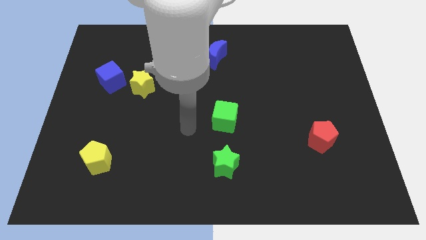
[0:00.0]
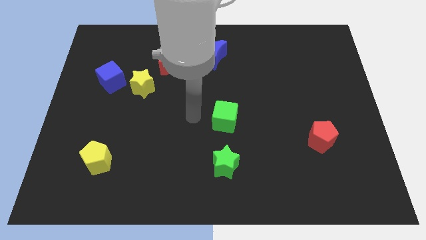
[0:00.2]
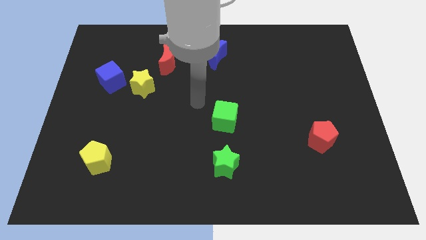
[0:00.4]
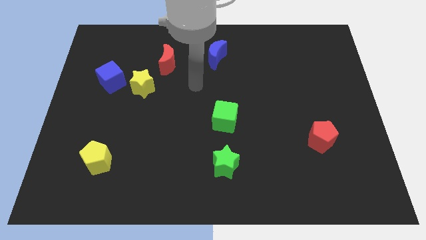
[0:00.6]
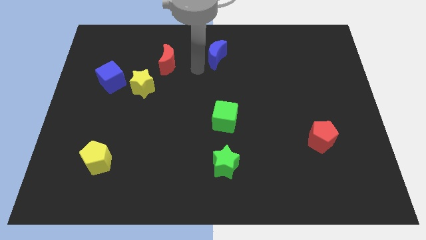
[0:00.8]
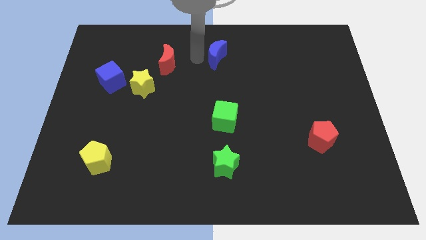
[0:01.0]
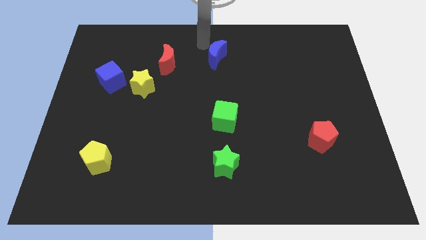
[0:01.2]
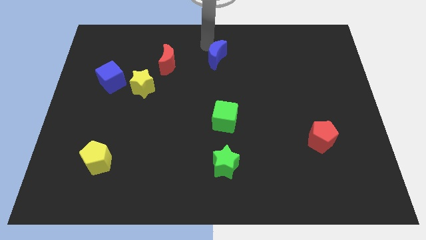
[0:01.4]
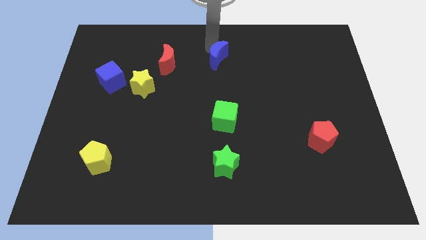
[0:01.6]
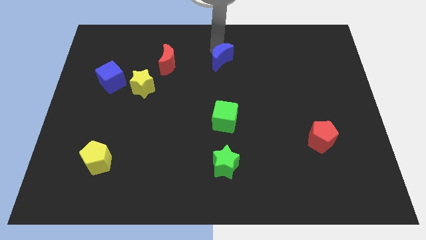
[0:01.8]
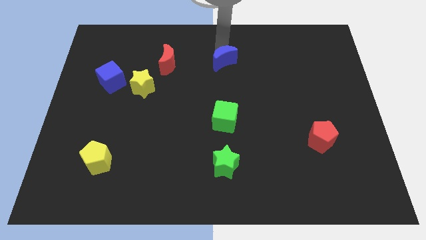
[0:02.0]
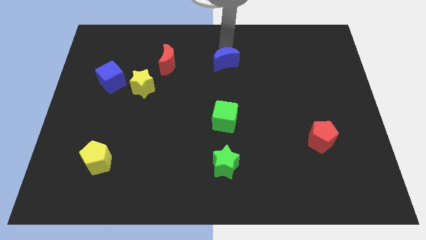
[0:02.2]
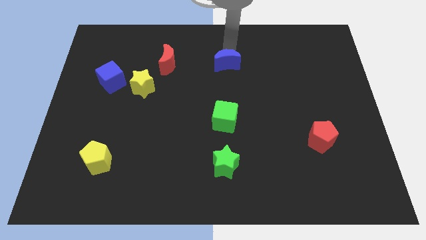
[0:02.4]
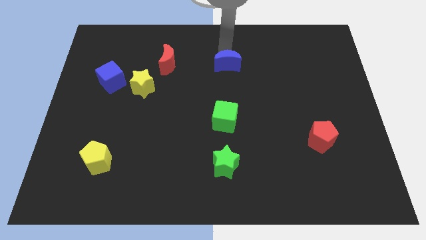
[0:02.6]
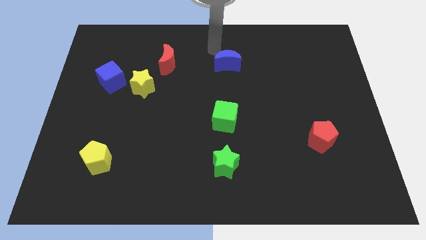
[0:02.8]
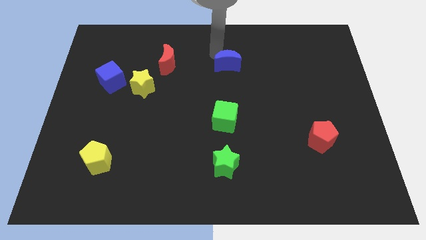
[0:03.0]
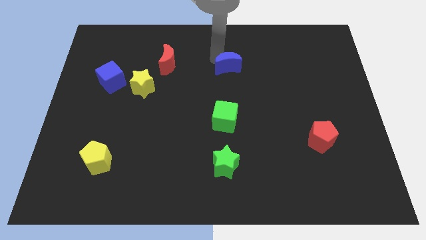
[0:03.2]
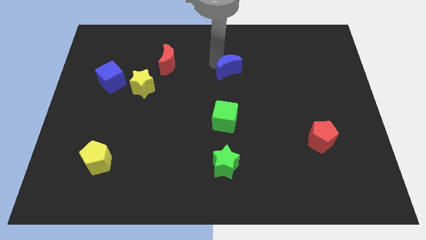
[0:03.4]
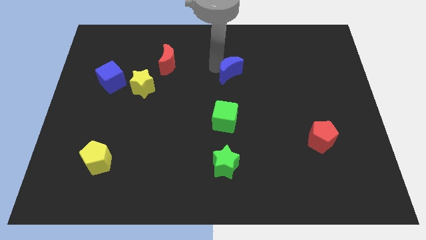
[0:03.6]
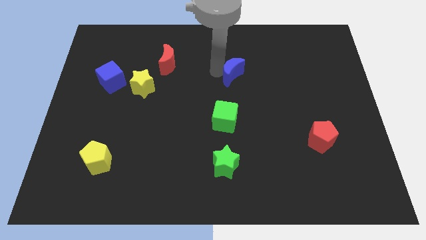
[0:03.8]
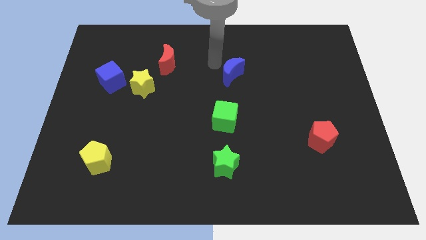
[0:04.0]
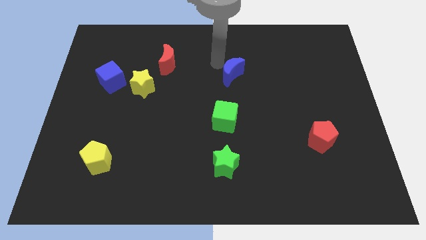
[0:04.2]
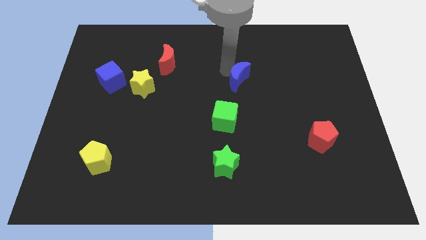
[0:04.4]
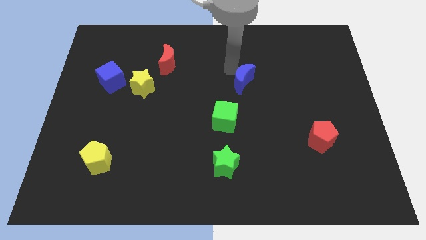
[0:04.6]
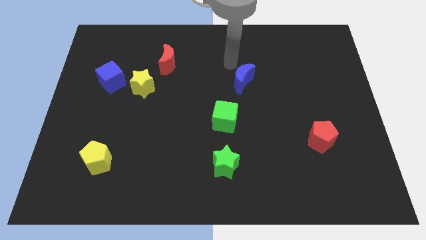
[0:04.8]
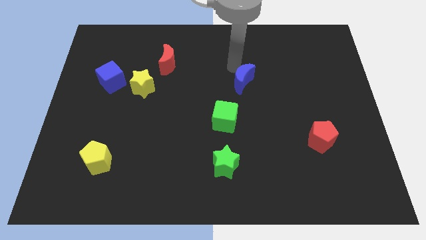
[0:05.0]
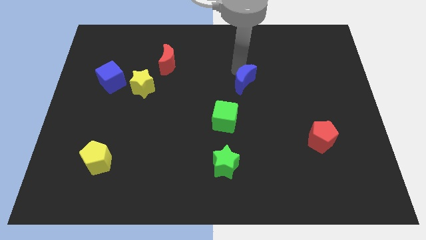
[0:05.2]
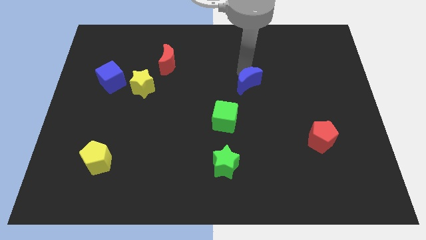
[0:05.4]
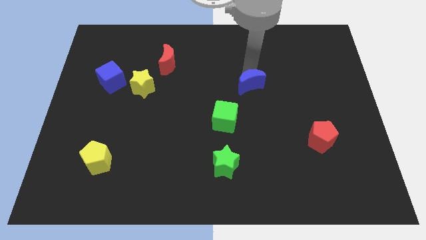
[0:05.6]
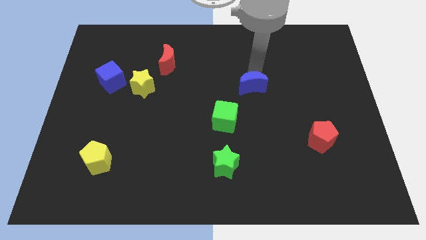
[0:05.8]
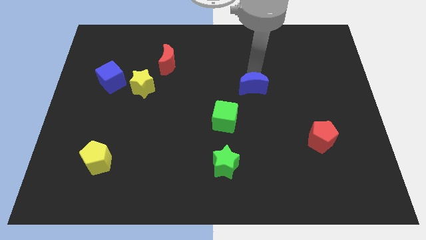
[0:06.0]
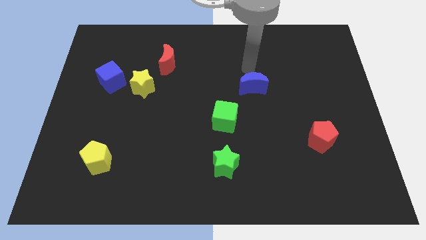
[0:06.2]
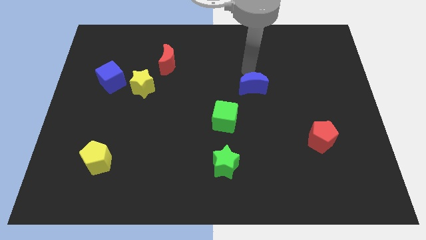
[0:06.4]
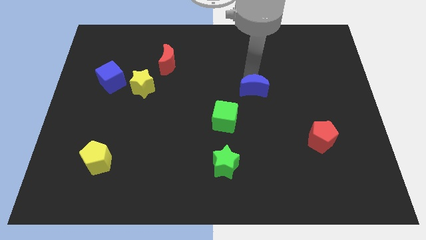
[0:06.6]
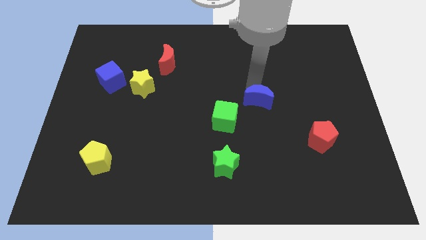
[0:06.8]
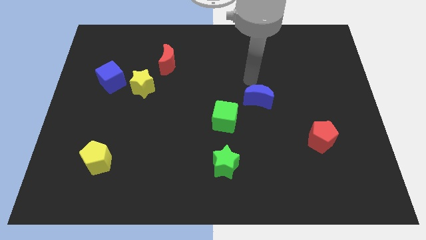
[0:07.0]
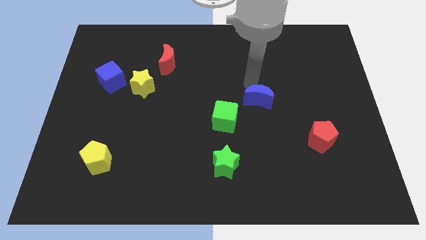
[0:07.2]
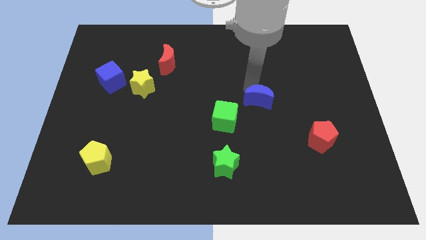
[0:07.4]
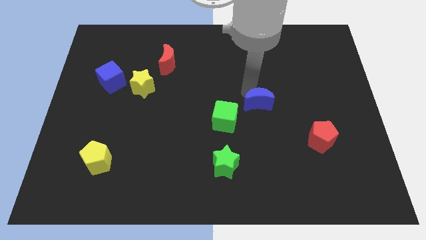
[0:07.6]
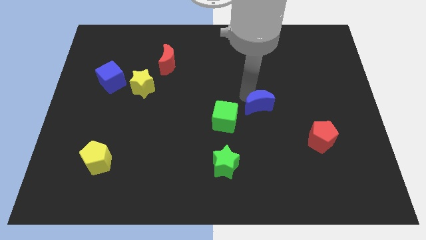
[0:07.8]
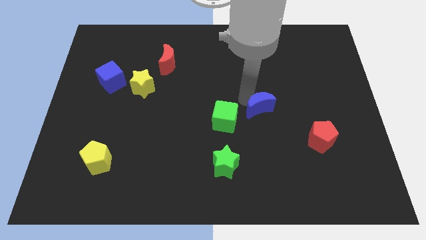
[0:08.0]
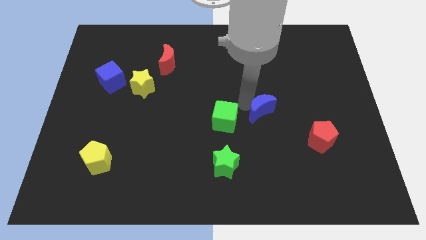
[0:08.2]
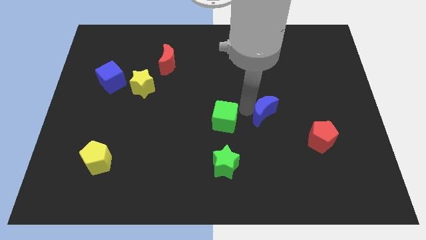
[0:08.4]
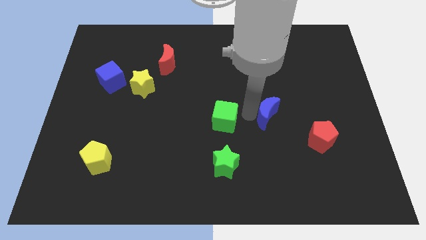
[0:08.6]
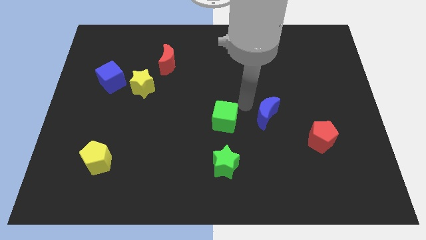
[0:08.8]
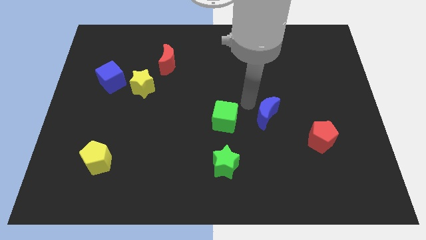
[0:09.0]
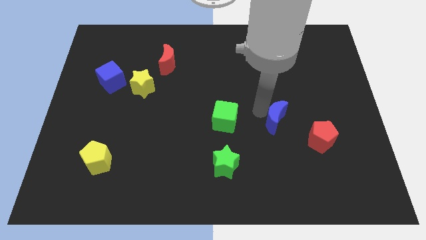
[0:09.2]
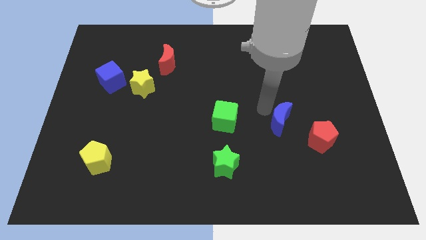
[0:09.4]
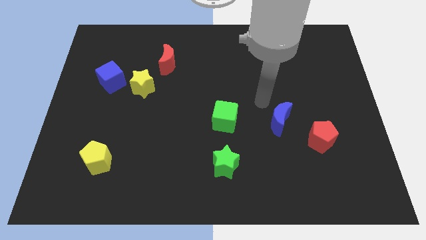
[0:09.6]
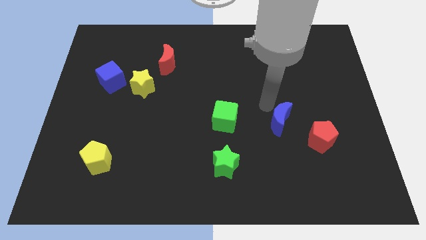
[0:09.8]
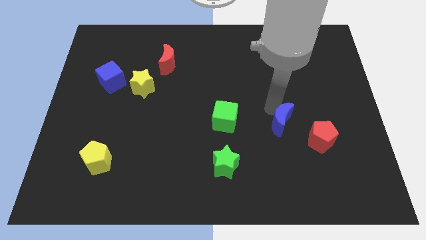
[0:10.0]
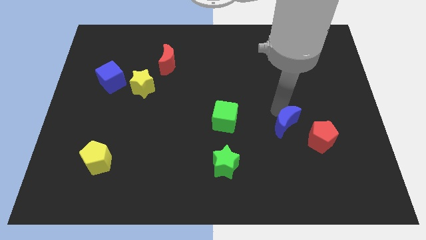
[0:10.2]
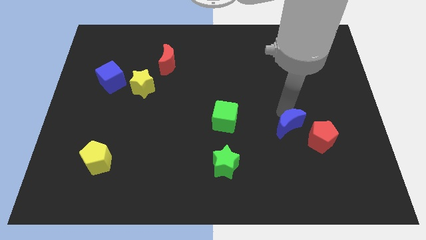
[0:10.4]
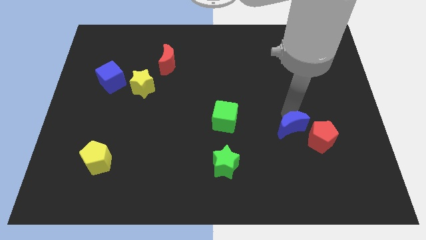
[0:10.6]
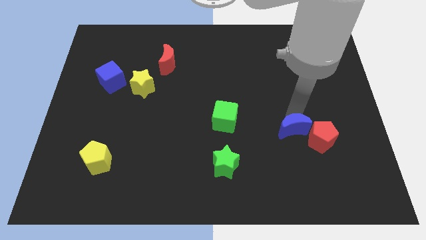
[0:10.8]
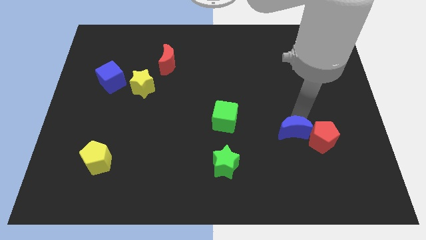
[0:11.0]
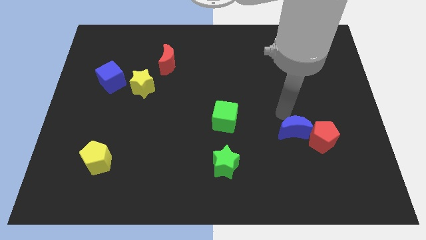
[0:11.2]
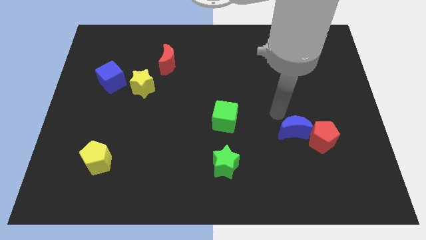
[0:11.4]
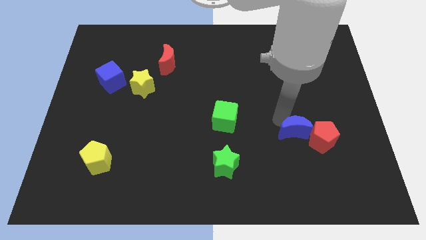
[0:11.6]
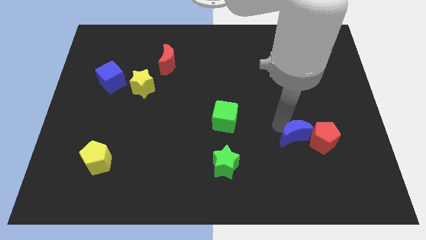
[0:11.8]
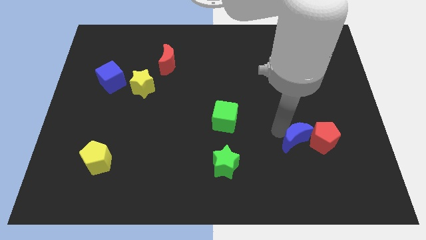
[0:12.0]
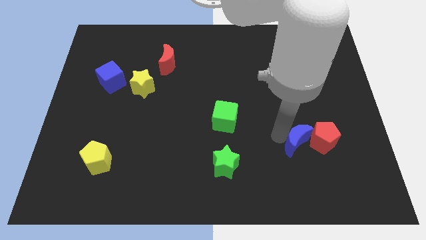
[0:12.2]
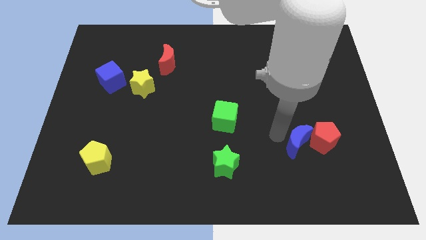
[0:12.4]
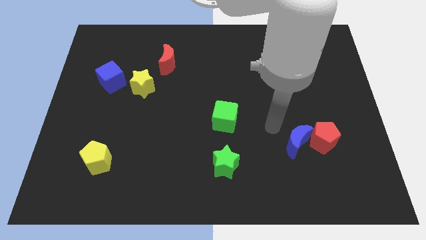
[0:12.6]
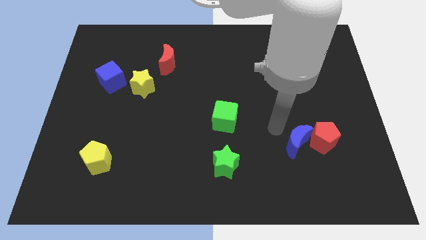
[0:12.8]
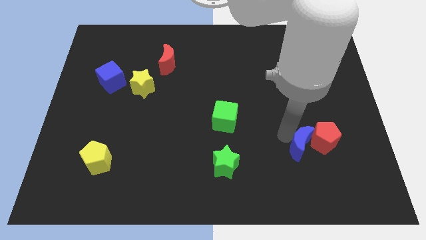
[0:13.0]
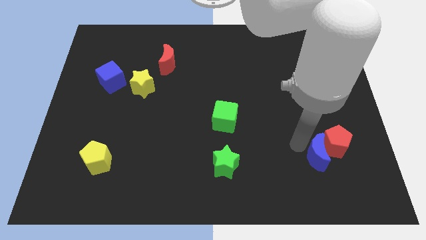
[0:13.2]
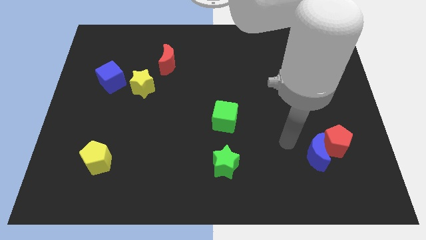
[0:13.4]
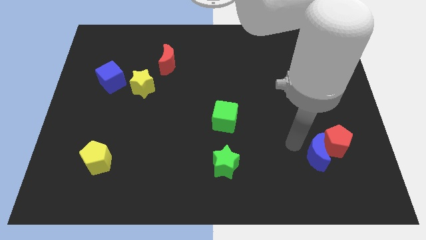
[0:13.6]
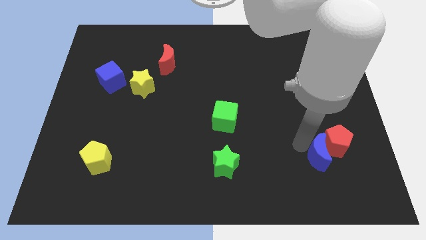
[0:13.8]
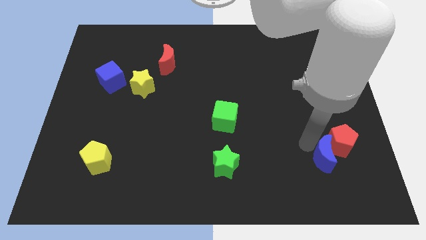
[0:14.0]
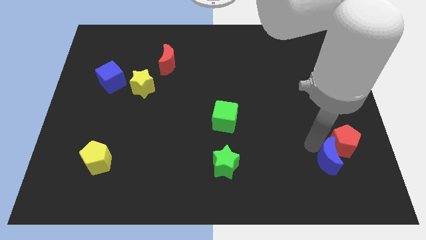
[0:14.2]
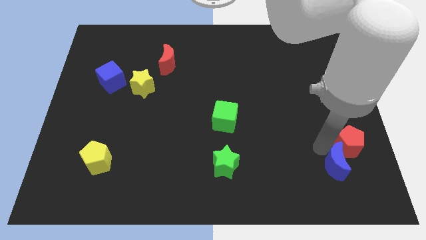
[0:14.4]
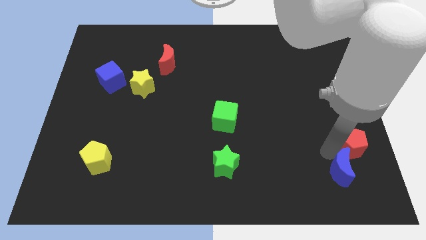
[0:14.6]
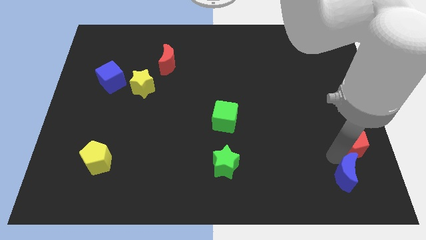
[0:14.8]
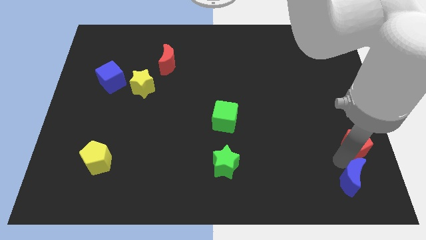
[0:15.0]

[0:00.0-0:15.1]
put the blue moon to the bottom right of the board
